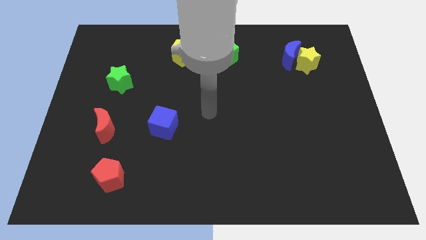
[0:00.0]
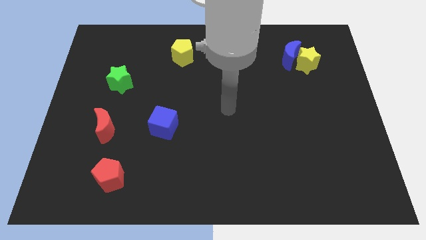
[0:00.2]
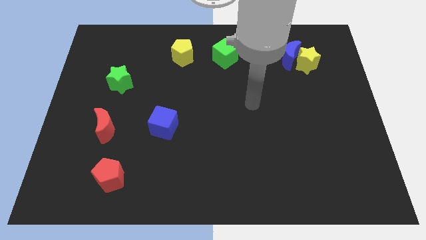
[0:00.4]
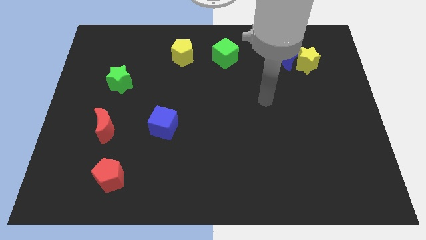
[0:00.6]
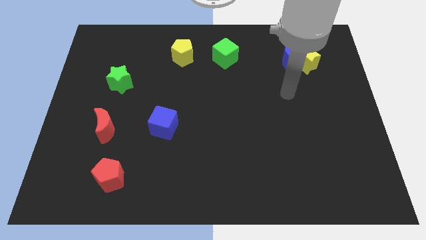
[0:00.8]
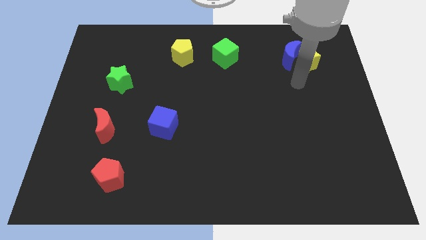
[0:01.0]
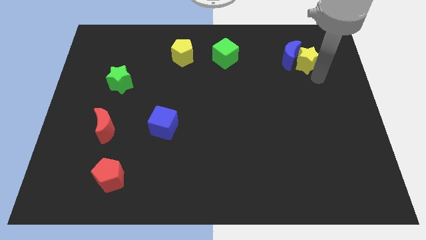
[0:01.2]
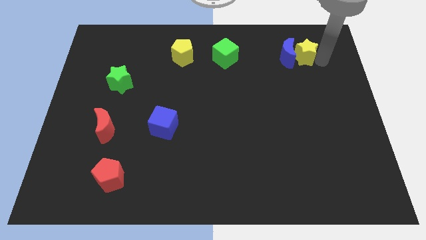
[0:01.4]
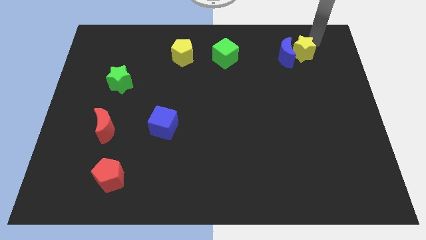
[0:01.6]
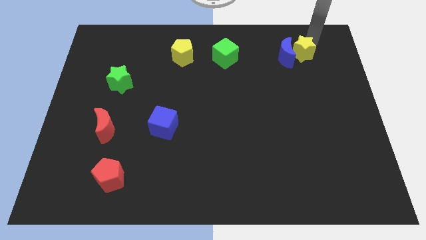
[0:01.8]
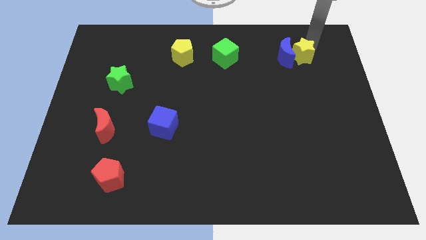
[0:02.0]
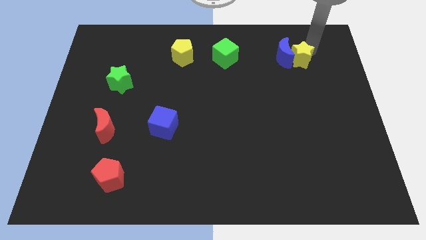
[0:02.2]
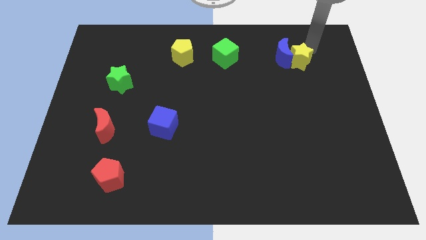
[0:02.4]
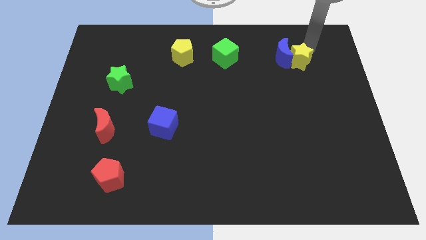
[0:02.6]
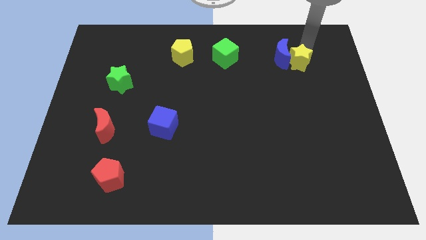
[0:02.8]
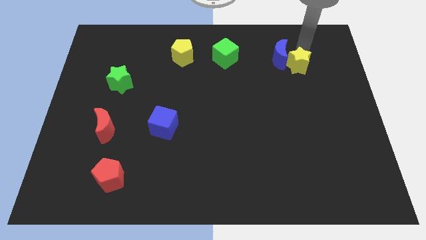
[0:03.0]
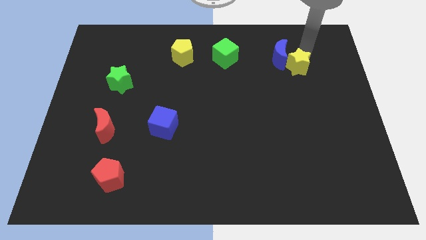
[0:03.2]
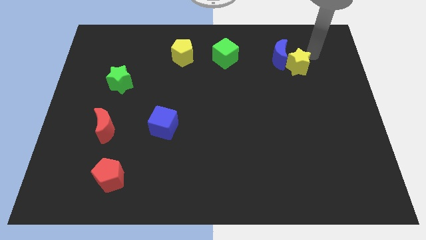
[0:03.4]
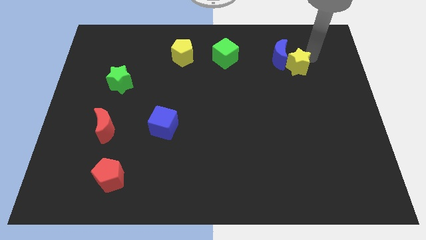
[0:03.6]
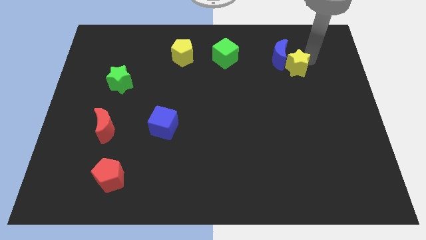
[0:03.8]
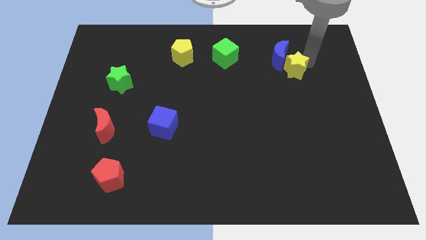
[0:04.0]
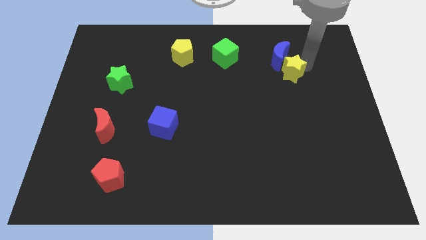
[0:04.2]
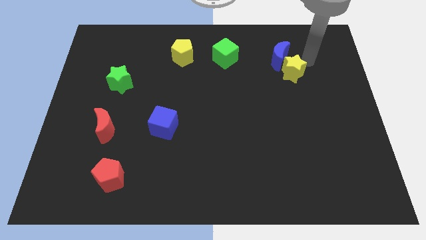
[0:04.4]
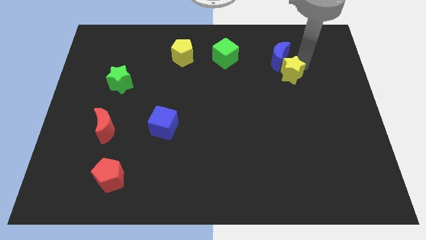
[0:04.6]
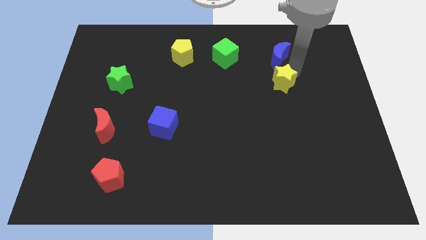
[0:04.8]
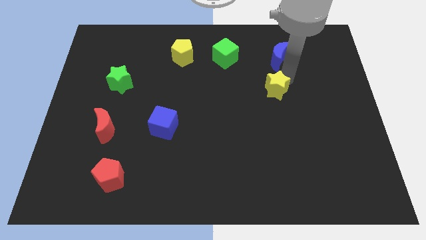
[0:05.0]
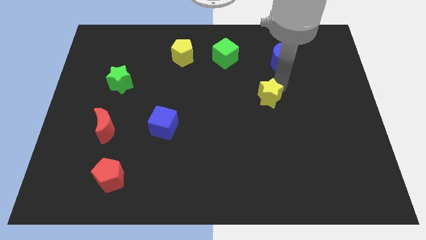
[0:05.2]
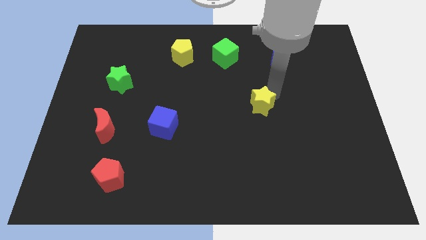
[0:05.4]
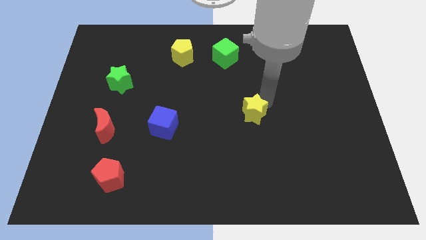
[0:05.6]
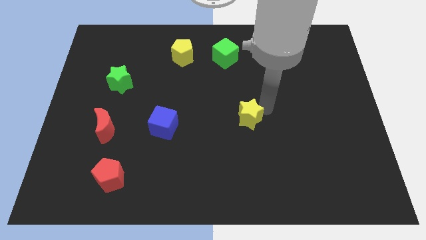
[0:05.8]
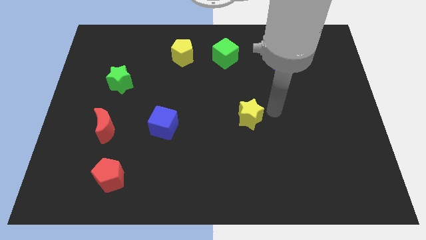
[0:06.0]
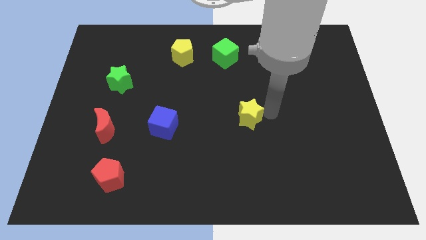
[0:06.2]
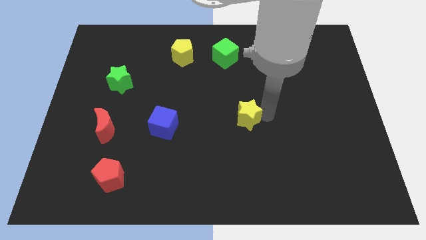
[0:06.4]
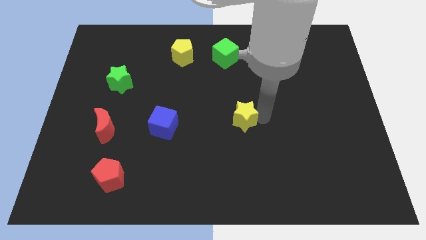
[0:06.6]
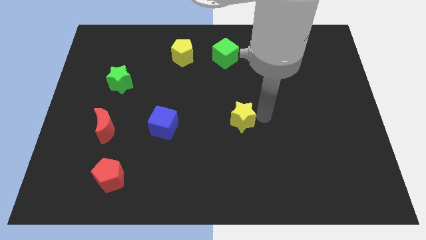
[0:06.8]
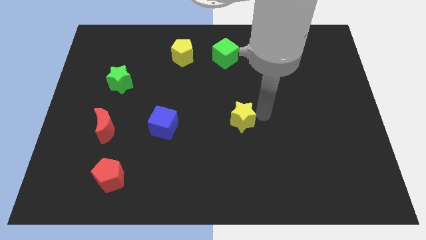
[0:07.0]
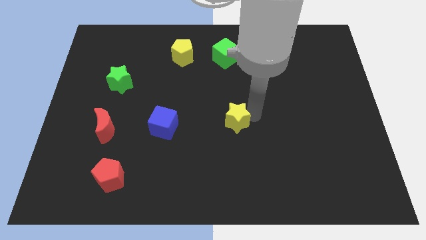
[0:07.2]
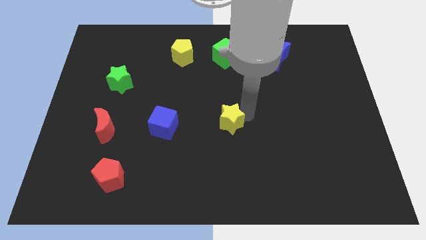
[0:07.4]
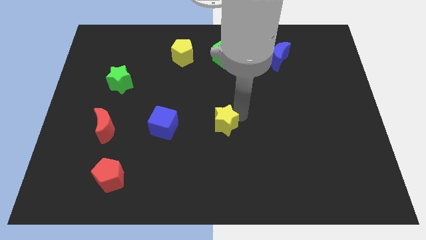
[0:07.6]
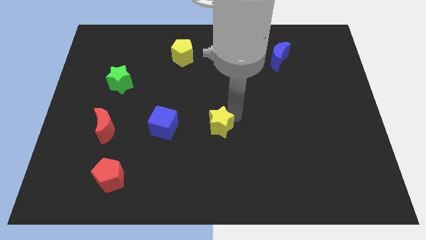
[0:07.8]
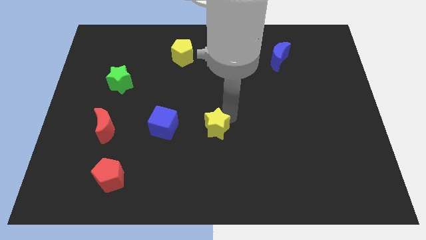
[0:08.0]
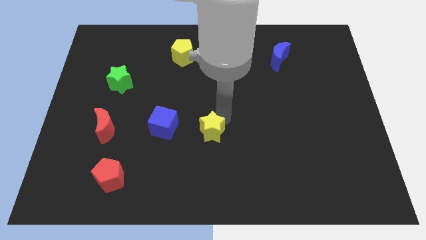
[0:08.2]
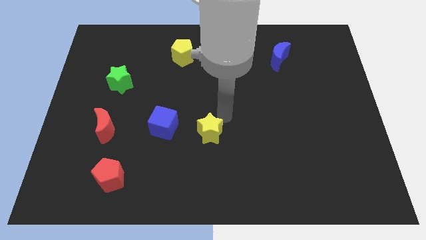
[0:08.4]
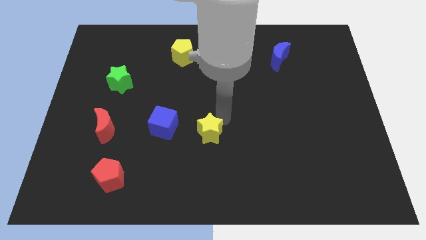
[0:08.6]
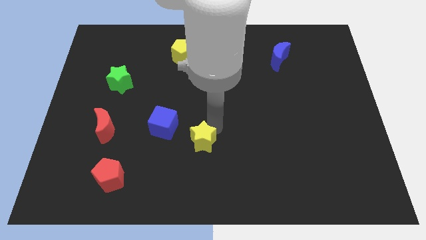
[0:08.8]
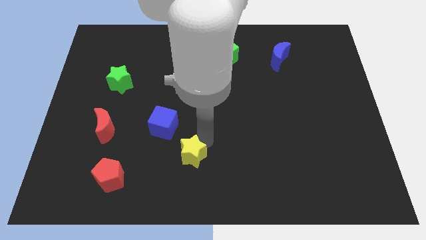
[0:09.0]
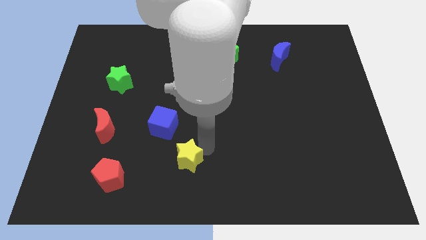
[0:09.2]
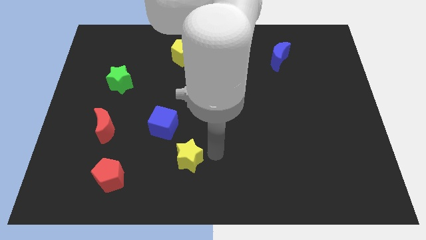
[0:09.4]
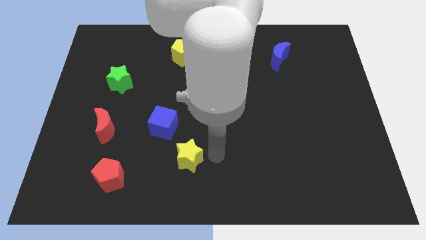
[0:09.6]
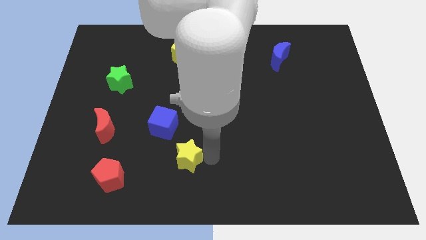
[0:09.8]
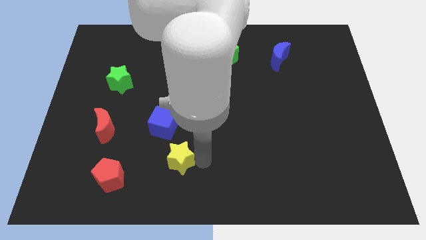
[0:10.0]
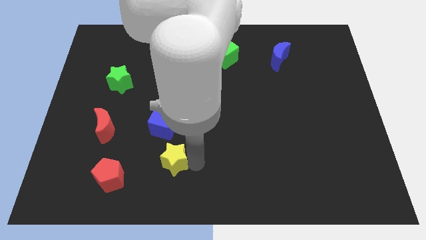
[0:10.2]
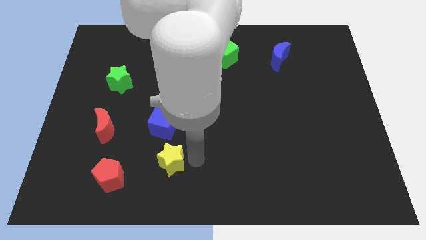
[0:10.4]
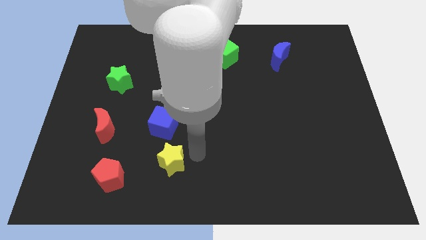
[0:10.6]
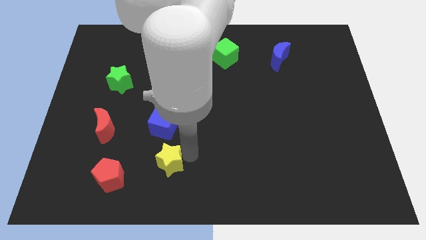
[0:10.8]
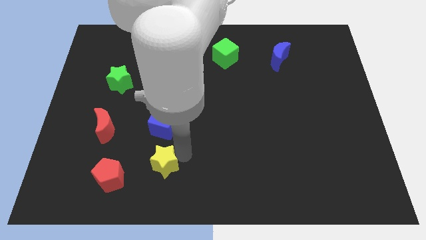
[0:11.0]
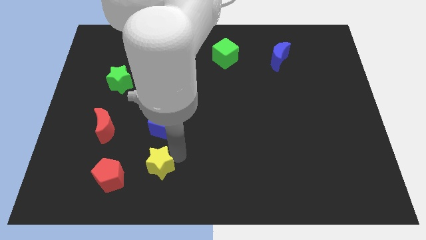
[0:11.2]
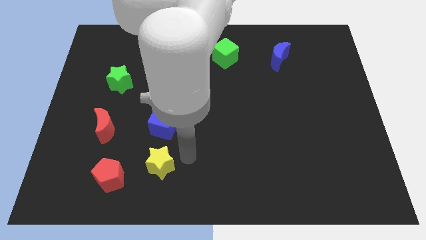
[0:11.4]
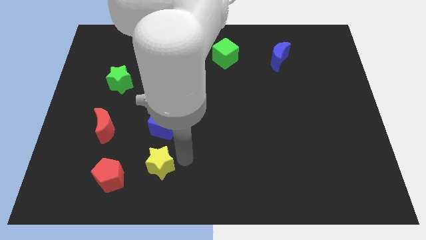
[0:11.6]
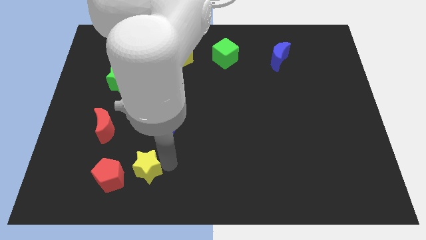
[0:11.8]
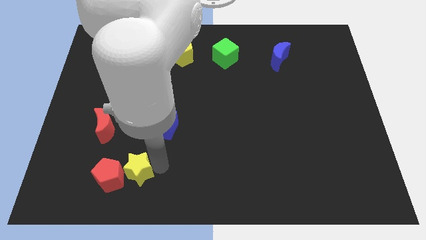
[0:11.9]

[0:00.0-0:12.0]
put the yellow star close to the red pentagon

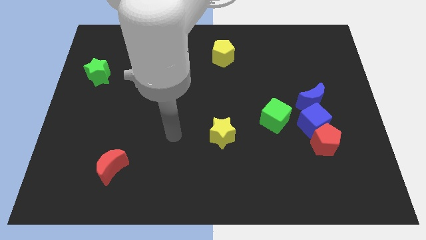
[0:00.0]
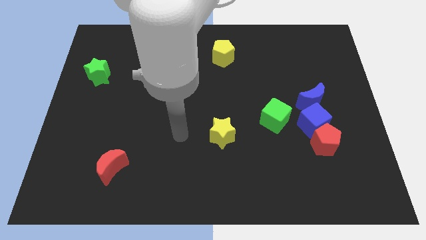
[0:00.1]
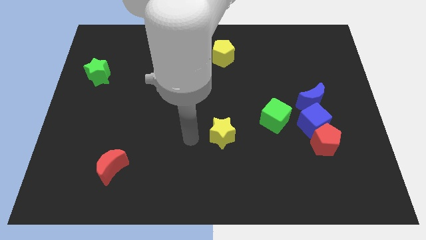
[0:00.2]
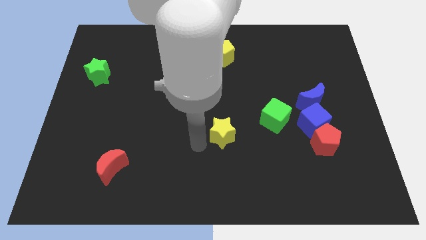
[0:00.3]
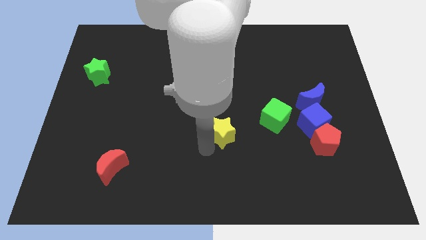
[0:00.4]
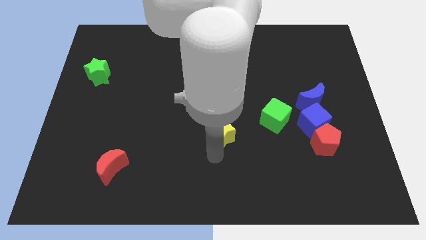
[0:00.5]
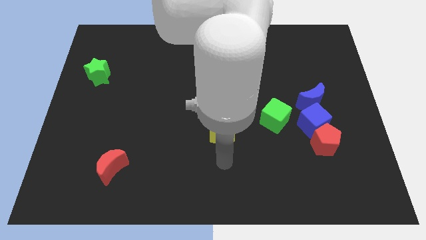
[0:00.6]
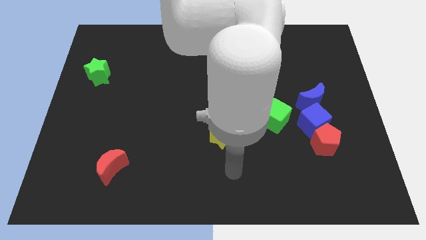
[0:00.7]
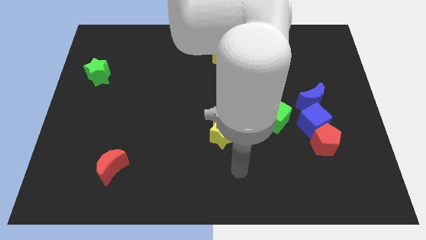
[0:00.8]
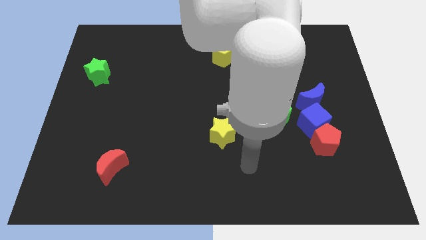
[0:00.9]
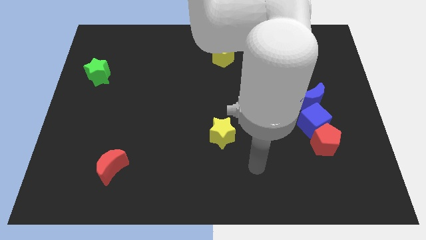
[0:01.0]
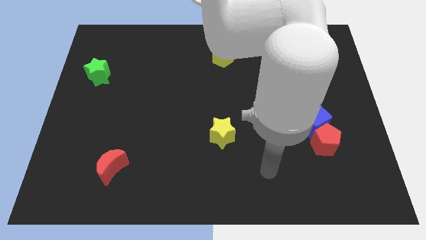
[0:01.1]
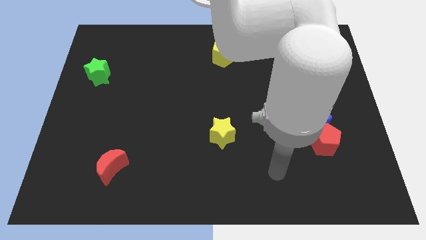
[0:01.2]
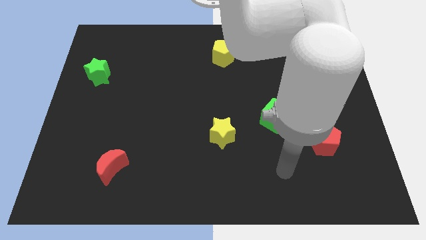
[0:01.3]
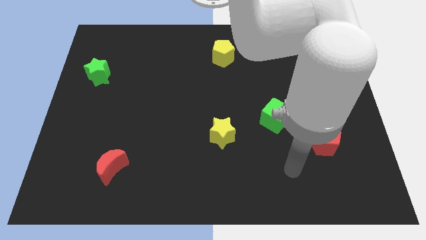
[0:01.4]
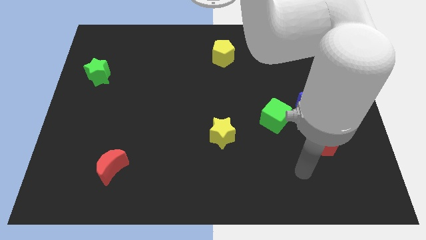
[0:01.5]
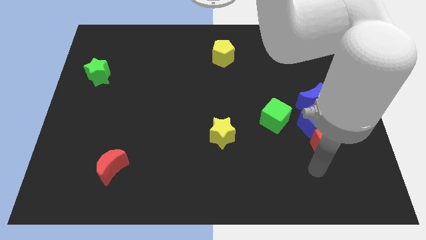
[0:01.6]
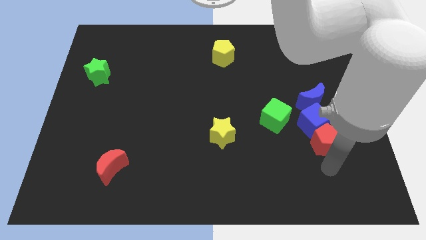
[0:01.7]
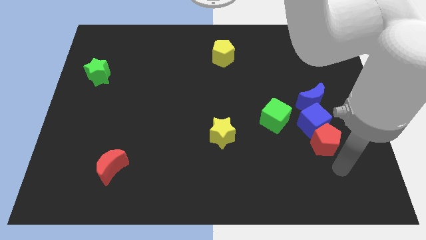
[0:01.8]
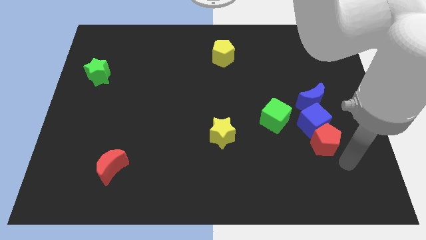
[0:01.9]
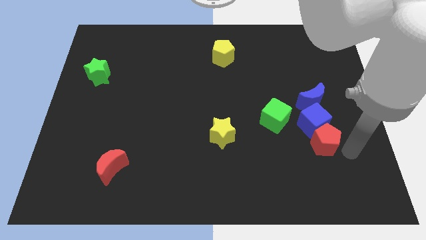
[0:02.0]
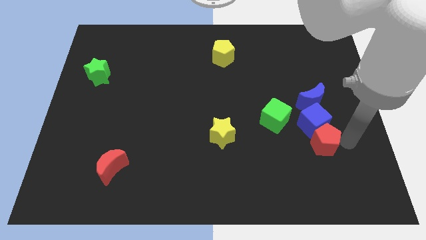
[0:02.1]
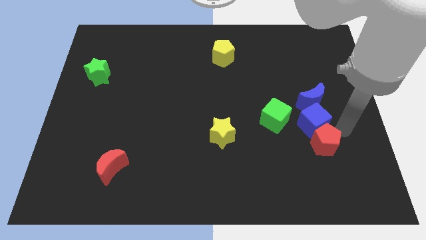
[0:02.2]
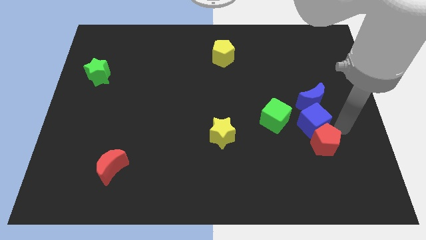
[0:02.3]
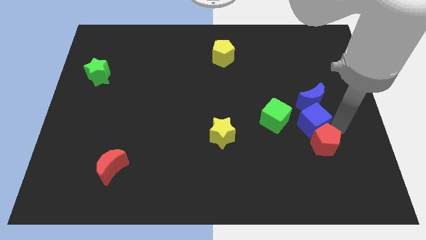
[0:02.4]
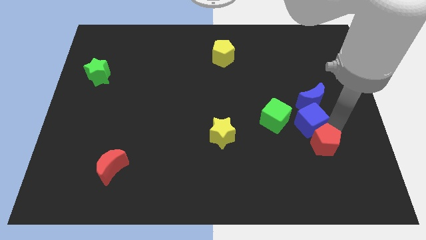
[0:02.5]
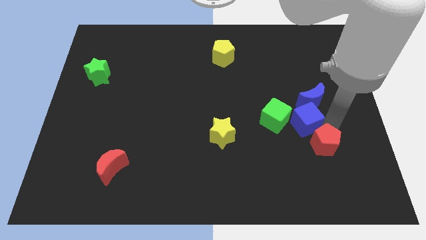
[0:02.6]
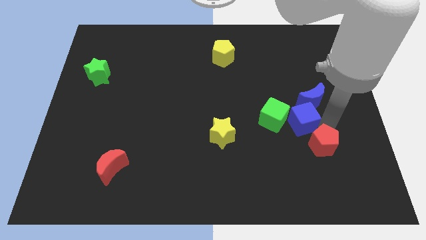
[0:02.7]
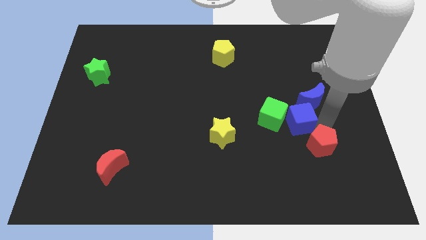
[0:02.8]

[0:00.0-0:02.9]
move the blue cube to the green cube
